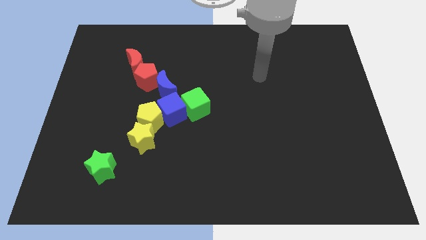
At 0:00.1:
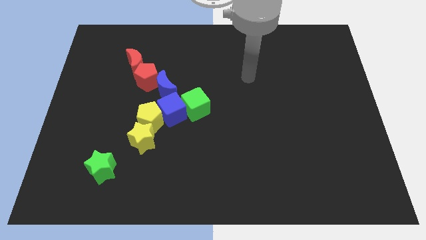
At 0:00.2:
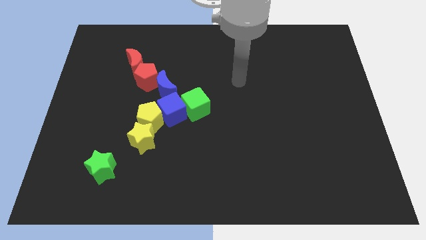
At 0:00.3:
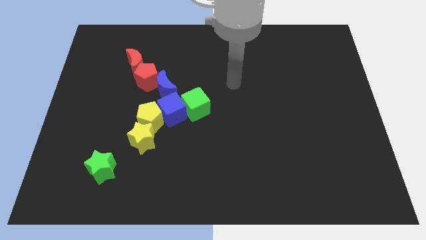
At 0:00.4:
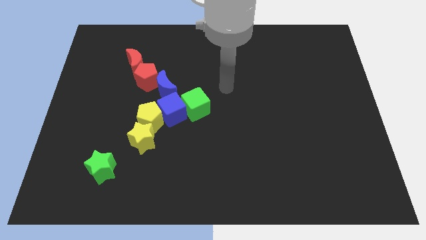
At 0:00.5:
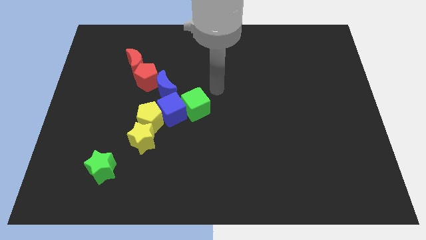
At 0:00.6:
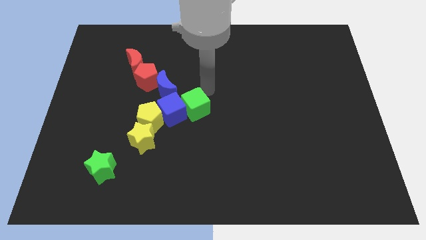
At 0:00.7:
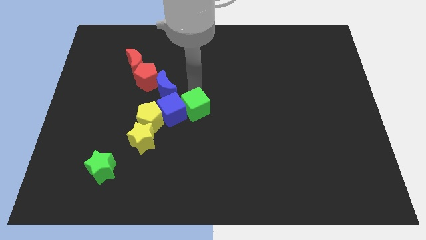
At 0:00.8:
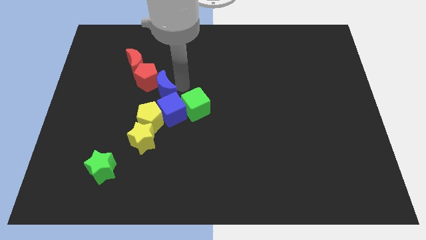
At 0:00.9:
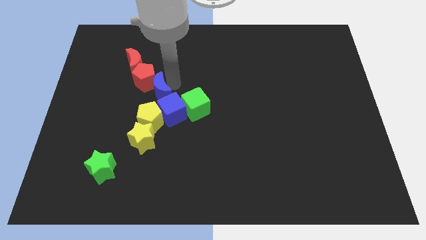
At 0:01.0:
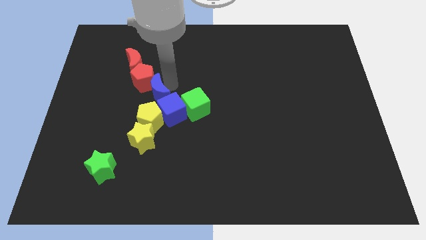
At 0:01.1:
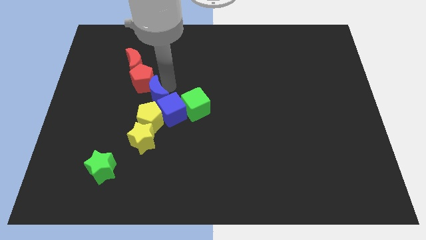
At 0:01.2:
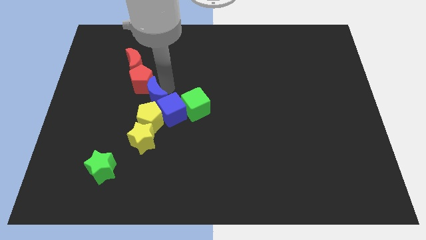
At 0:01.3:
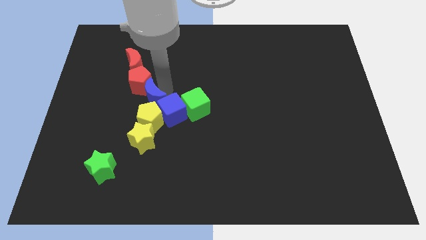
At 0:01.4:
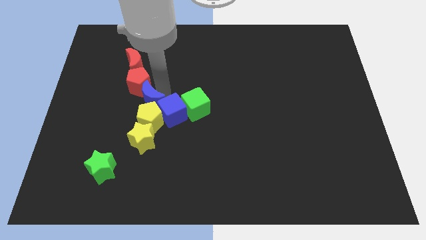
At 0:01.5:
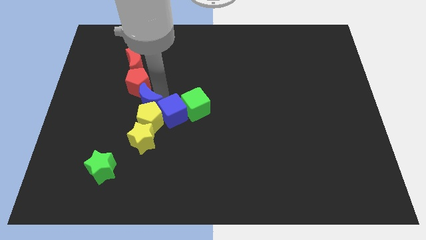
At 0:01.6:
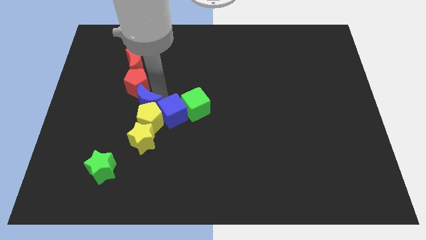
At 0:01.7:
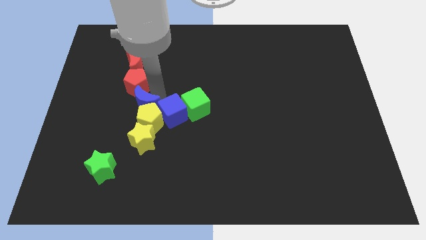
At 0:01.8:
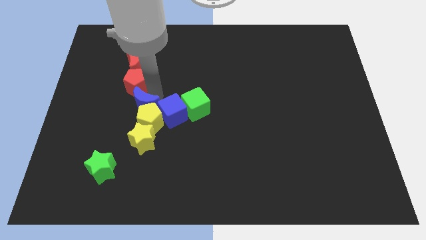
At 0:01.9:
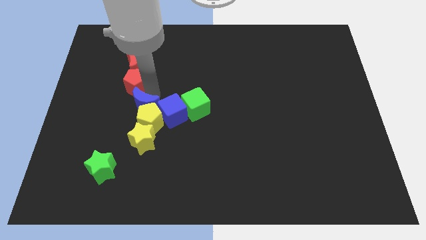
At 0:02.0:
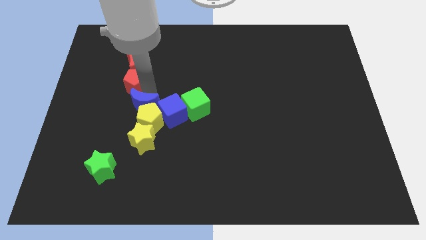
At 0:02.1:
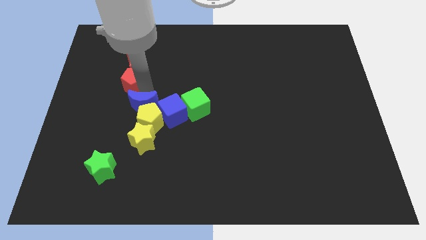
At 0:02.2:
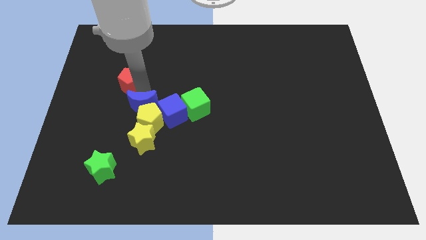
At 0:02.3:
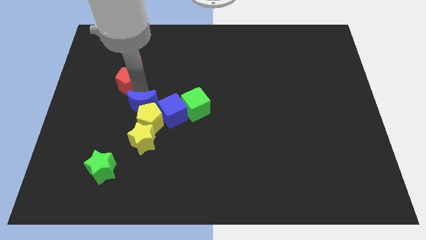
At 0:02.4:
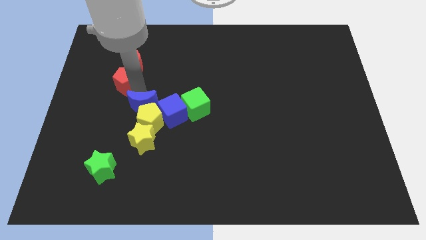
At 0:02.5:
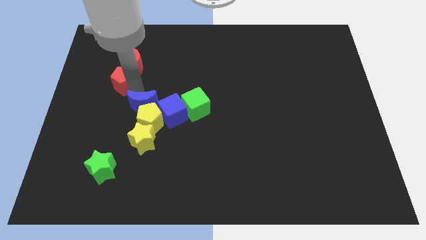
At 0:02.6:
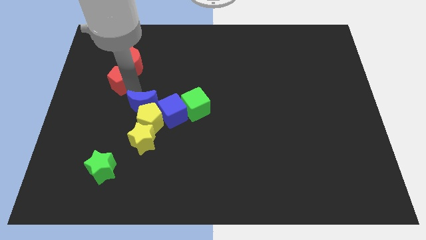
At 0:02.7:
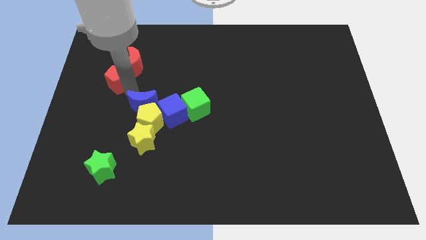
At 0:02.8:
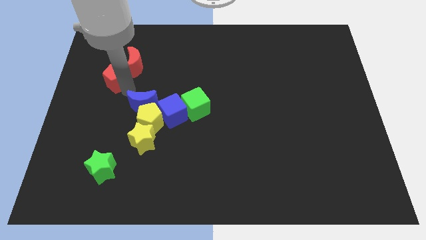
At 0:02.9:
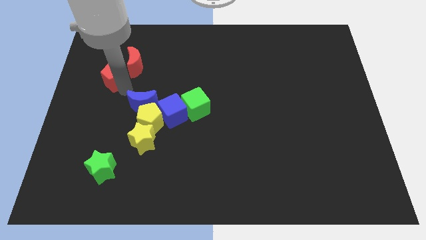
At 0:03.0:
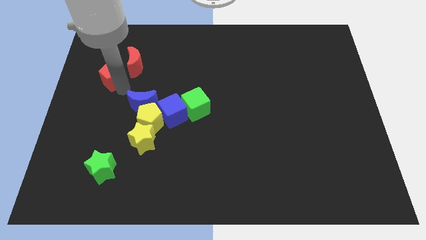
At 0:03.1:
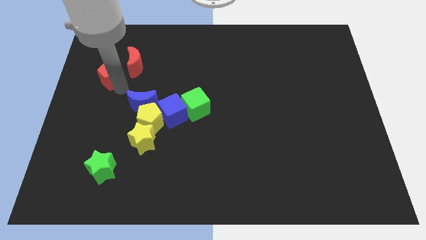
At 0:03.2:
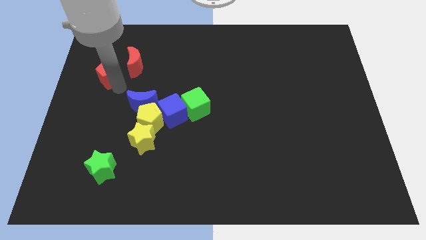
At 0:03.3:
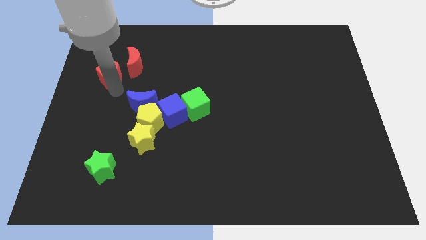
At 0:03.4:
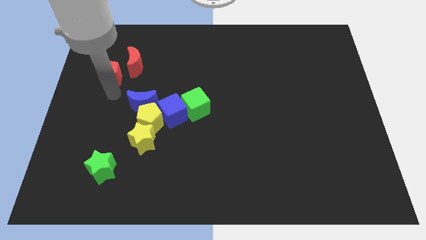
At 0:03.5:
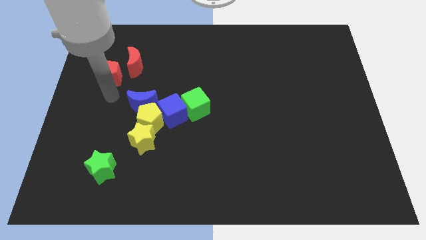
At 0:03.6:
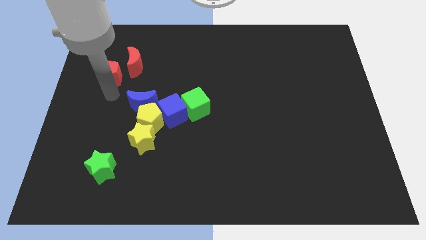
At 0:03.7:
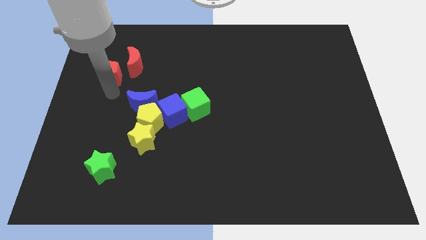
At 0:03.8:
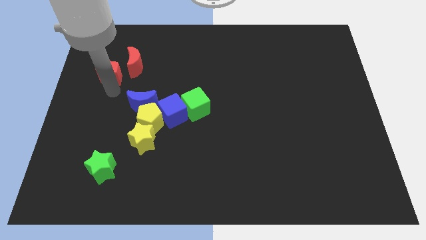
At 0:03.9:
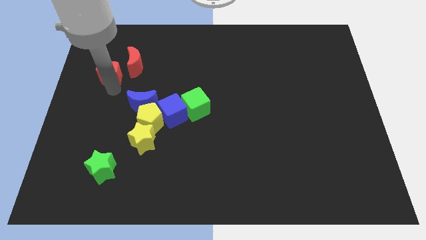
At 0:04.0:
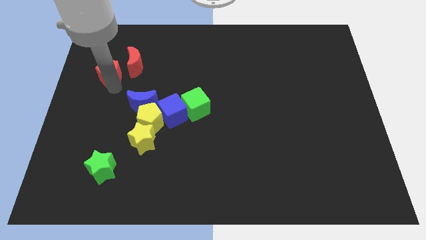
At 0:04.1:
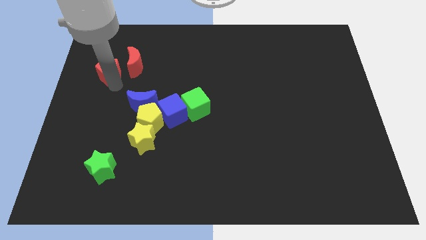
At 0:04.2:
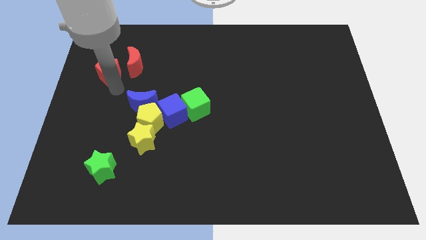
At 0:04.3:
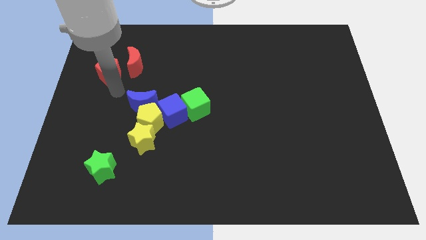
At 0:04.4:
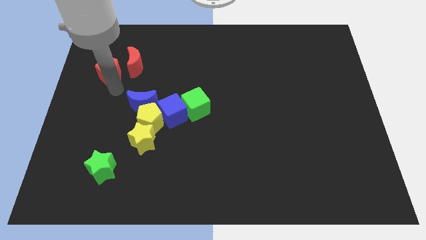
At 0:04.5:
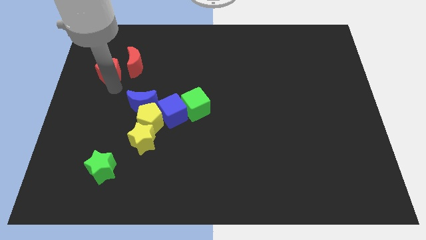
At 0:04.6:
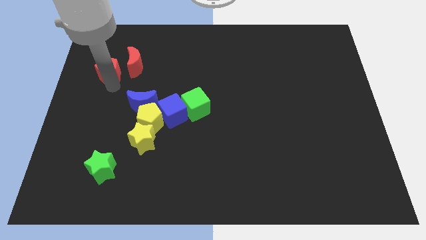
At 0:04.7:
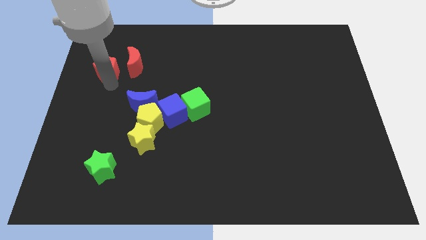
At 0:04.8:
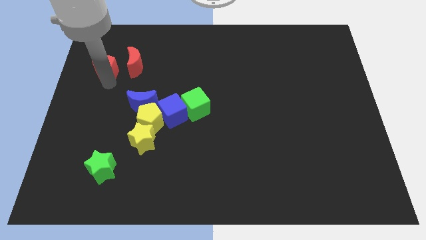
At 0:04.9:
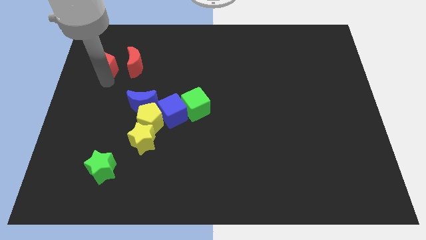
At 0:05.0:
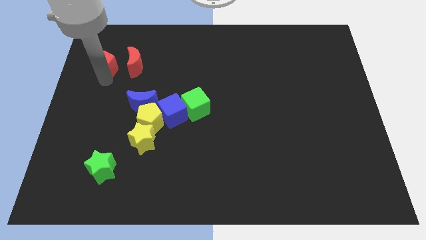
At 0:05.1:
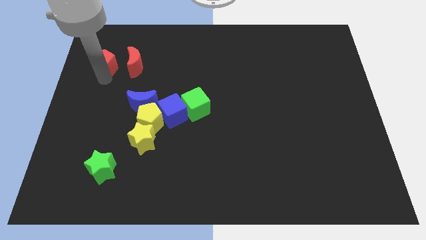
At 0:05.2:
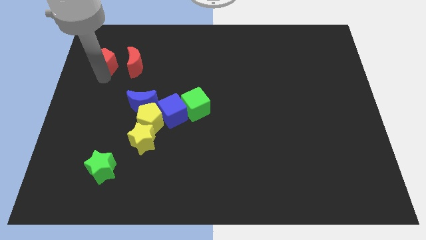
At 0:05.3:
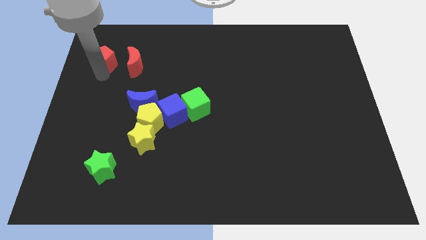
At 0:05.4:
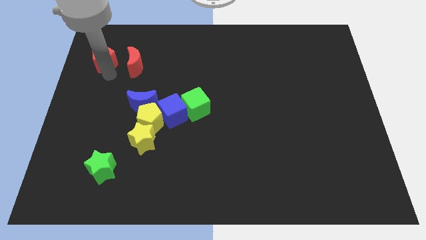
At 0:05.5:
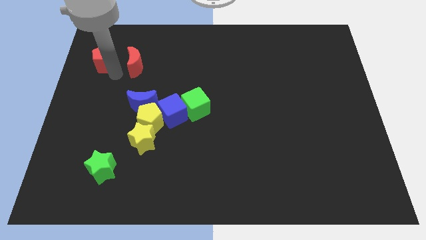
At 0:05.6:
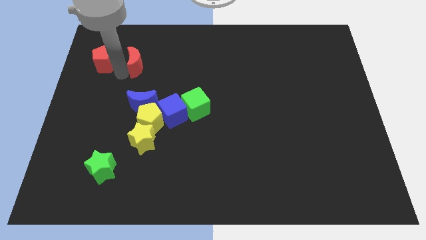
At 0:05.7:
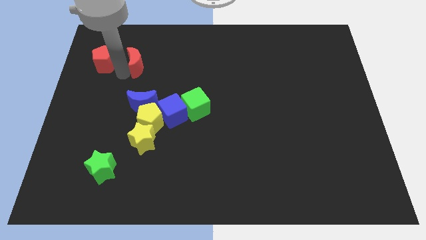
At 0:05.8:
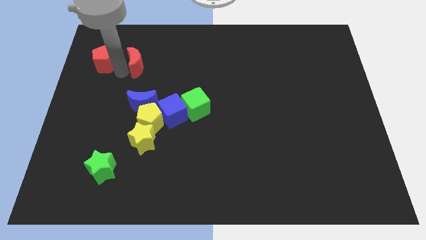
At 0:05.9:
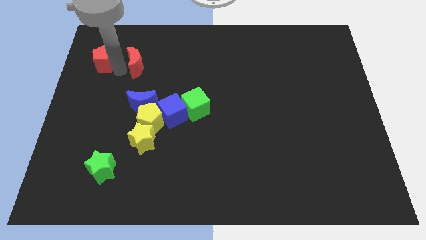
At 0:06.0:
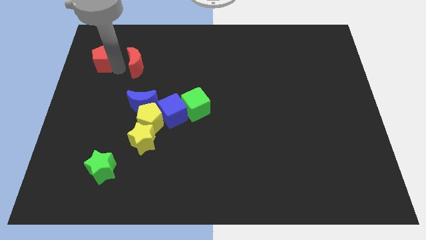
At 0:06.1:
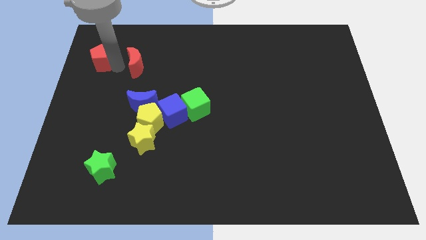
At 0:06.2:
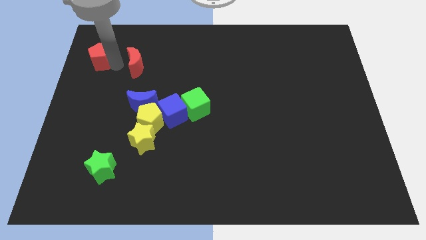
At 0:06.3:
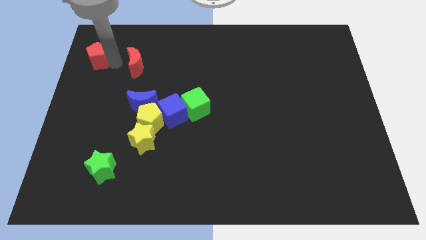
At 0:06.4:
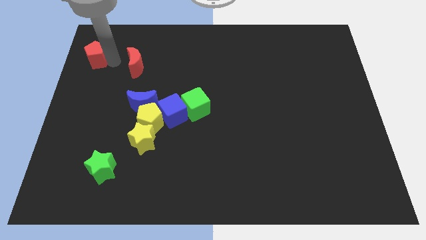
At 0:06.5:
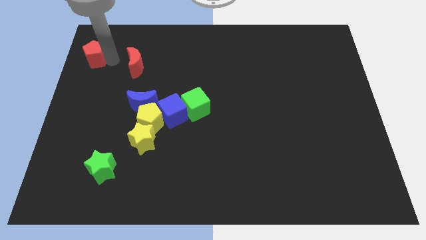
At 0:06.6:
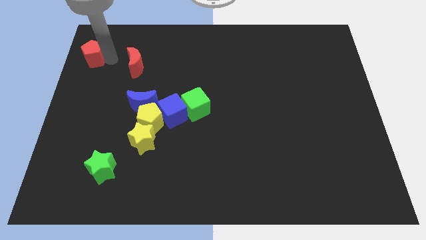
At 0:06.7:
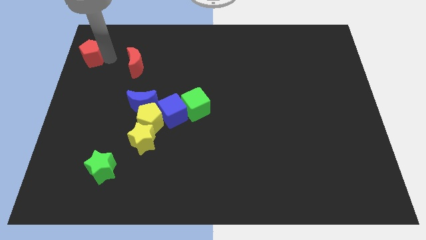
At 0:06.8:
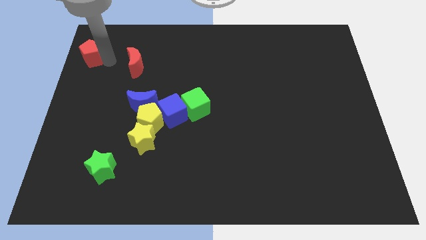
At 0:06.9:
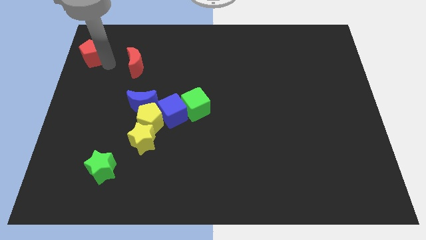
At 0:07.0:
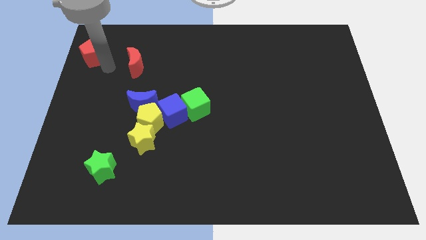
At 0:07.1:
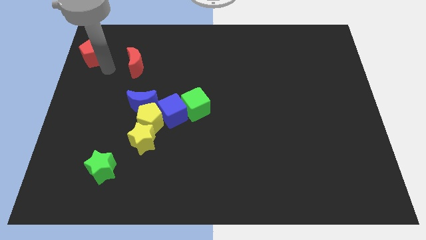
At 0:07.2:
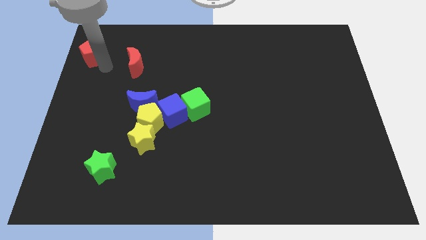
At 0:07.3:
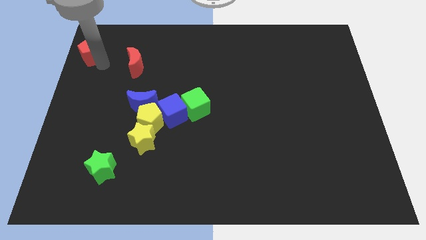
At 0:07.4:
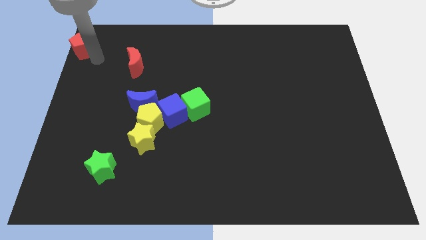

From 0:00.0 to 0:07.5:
move the red pentagon to the top left of the board
